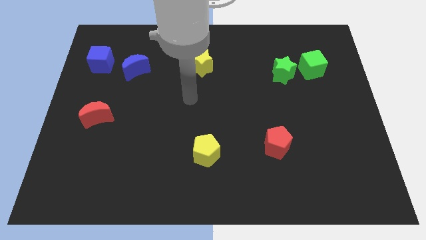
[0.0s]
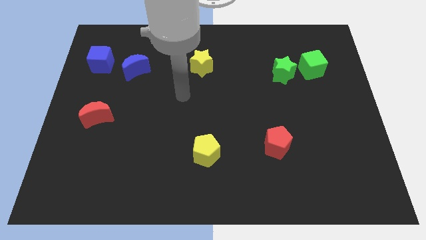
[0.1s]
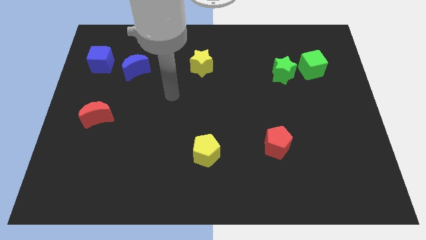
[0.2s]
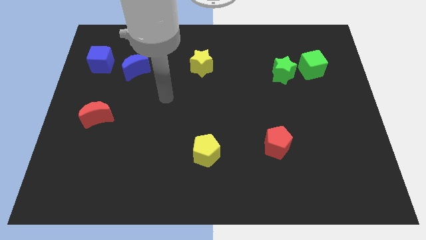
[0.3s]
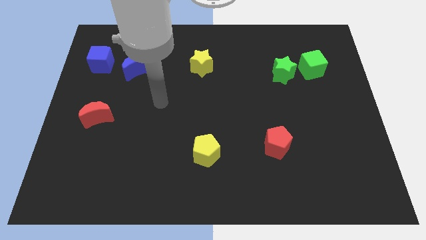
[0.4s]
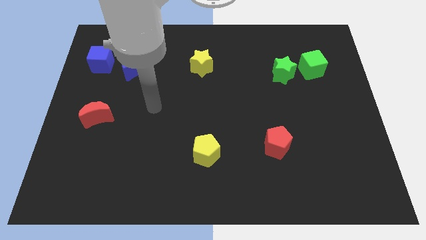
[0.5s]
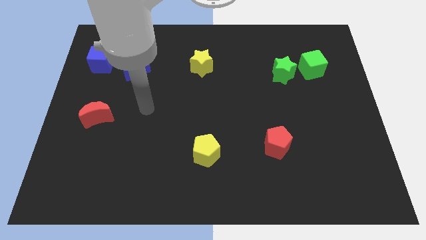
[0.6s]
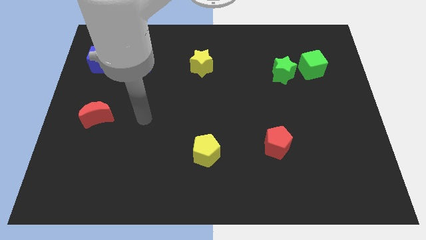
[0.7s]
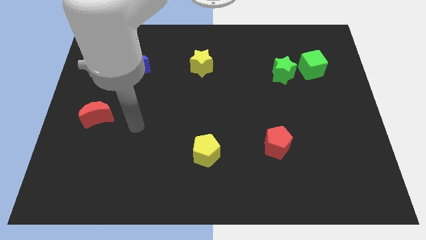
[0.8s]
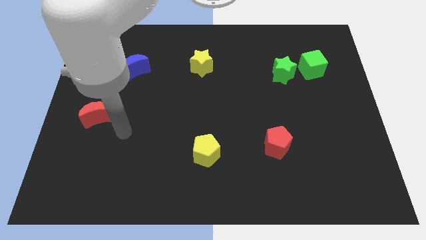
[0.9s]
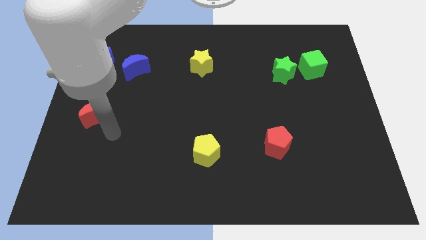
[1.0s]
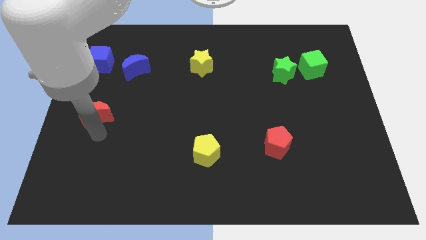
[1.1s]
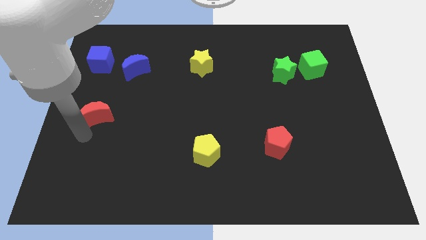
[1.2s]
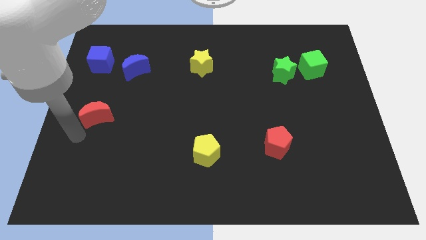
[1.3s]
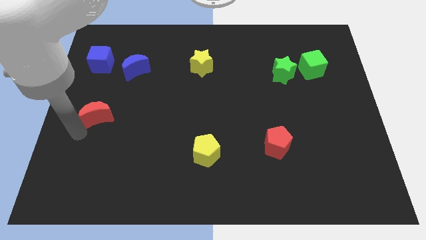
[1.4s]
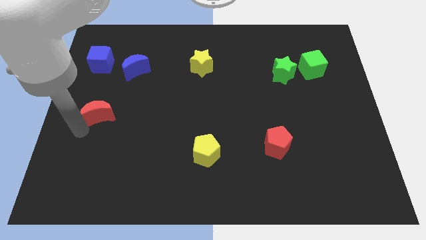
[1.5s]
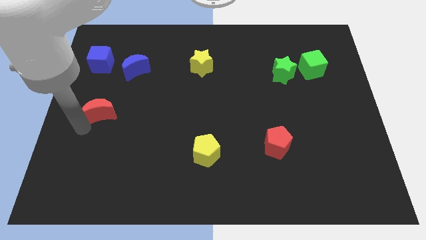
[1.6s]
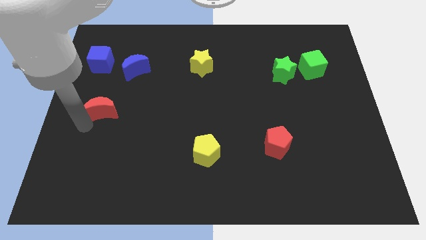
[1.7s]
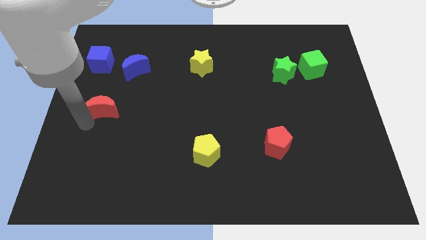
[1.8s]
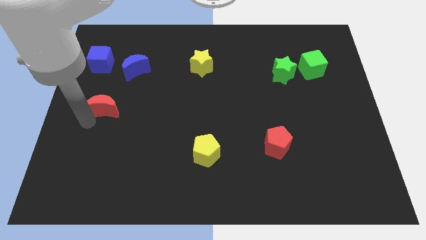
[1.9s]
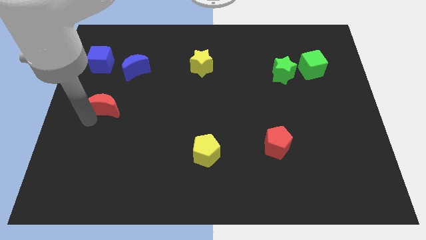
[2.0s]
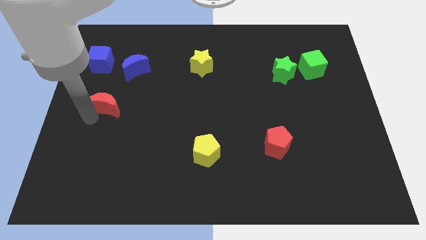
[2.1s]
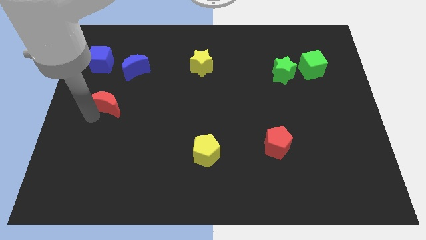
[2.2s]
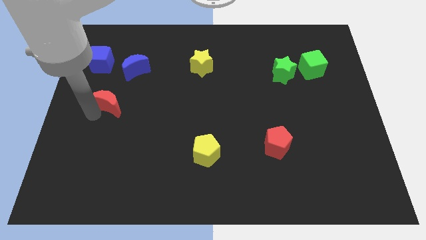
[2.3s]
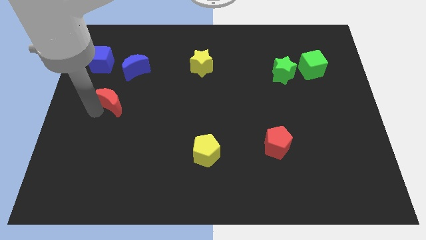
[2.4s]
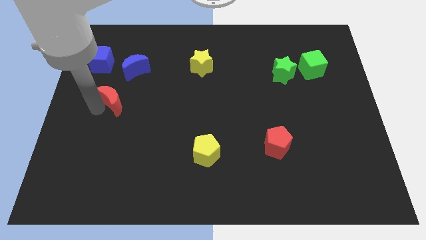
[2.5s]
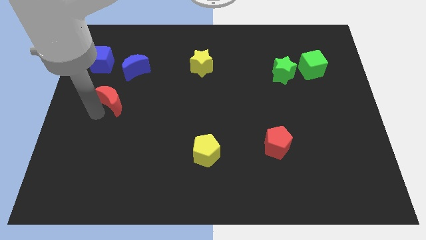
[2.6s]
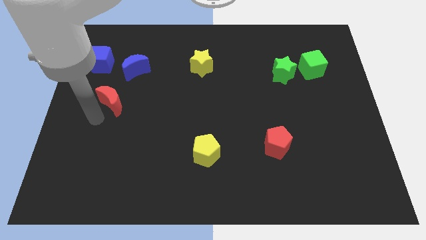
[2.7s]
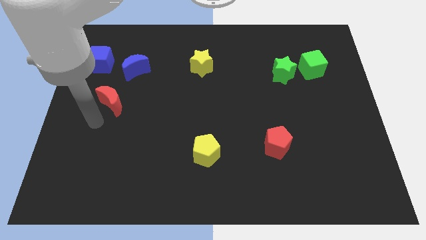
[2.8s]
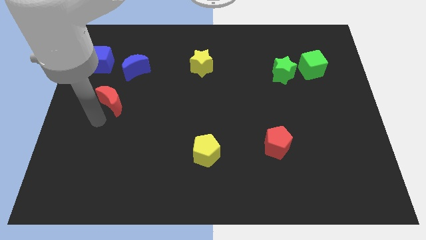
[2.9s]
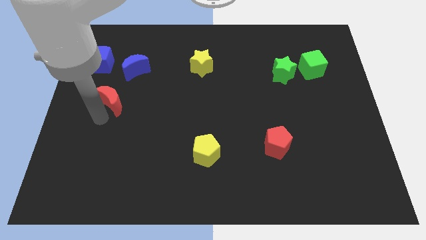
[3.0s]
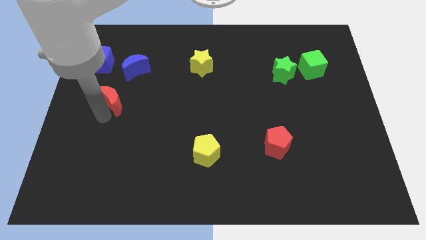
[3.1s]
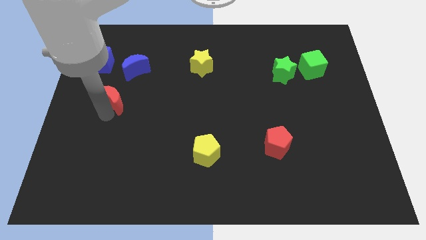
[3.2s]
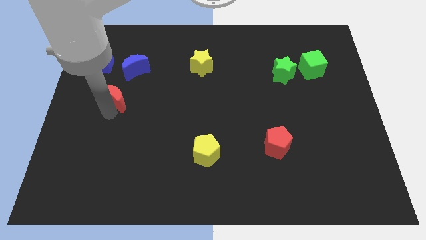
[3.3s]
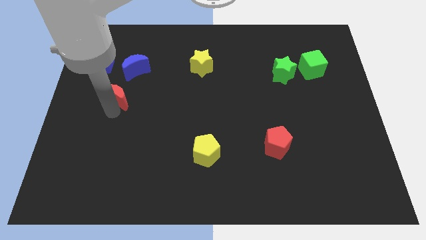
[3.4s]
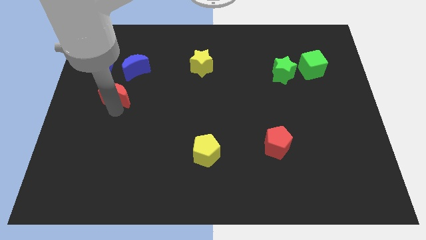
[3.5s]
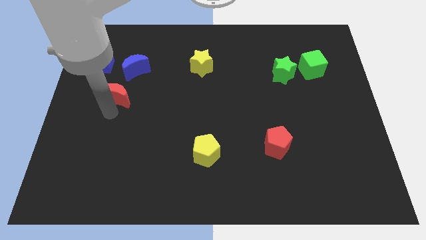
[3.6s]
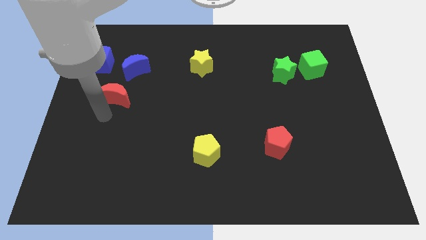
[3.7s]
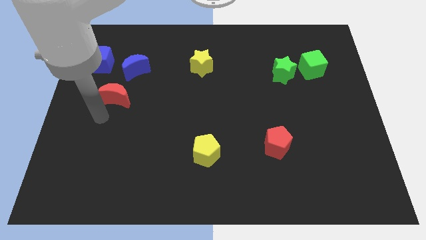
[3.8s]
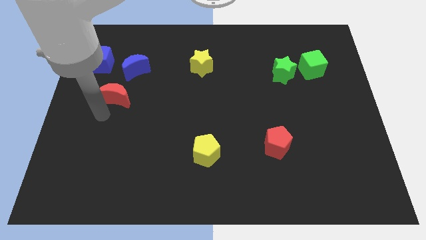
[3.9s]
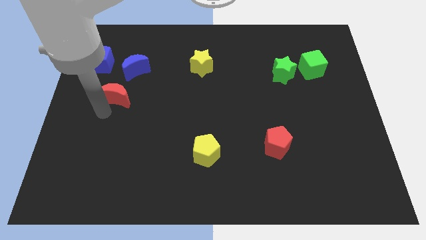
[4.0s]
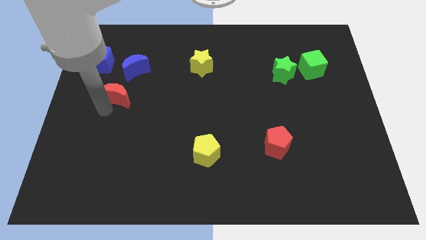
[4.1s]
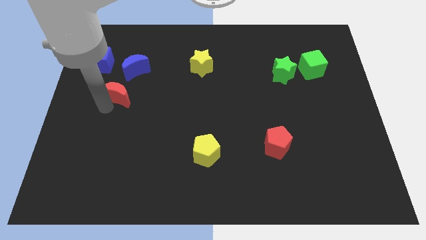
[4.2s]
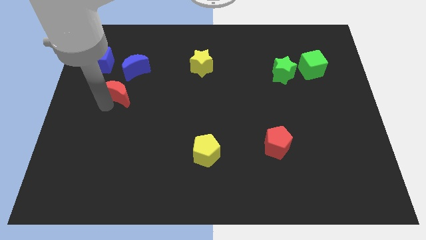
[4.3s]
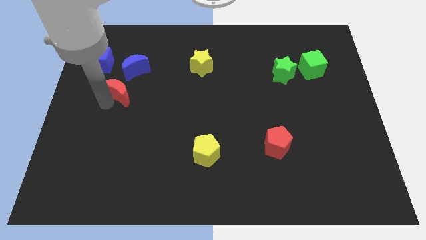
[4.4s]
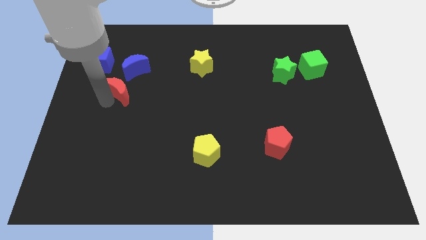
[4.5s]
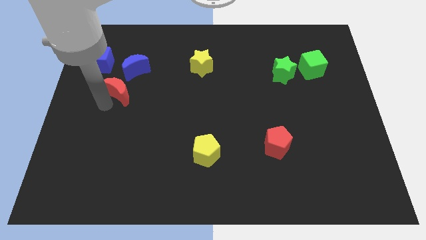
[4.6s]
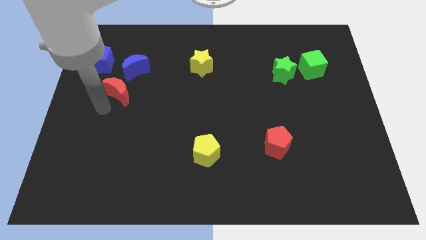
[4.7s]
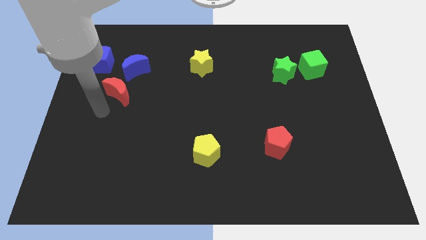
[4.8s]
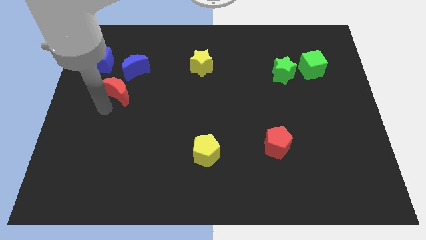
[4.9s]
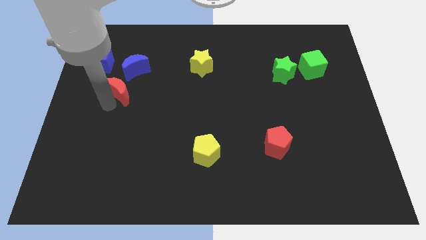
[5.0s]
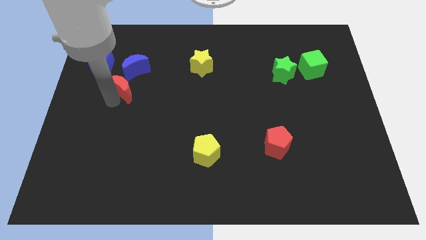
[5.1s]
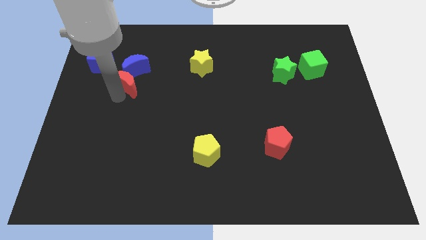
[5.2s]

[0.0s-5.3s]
slide the red moon towards the blue moon

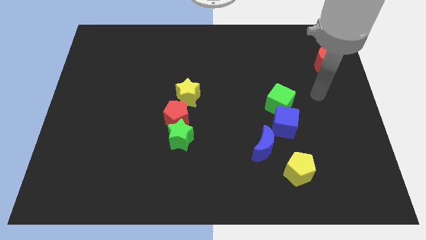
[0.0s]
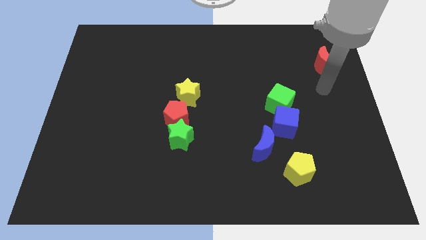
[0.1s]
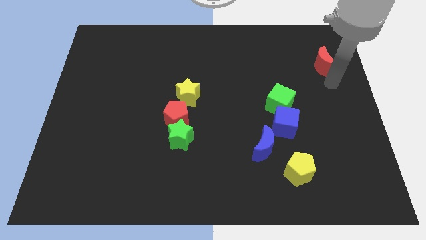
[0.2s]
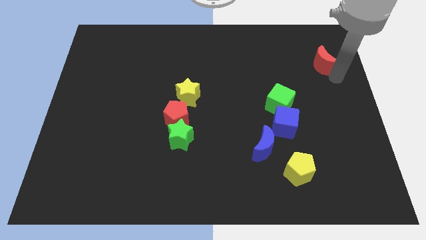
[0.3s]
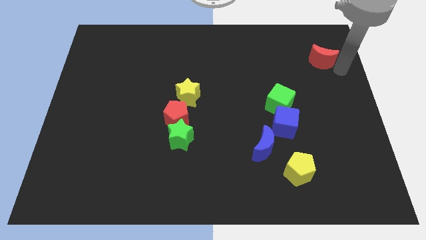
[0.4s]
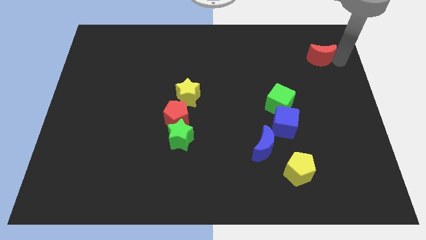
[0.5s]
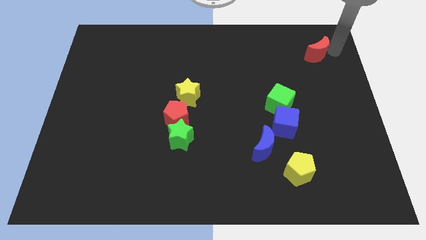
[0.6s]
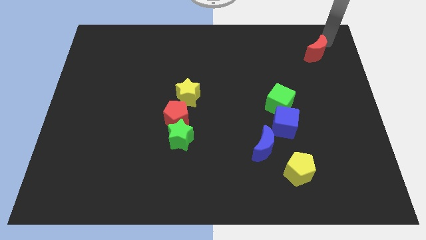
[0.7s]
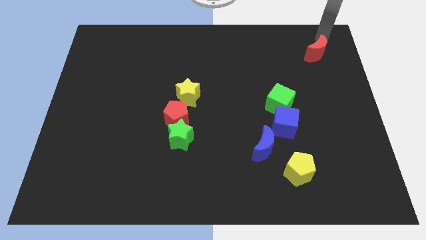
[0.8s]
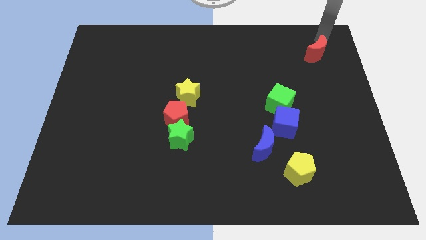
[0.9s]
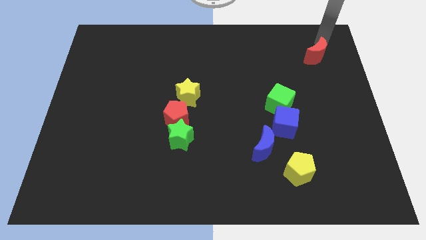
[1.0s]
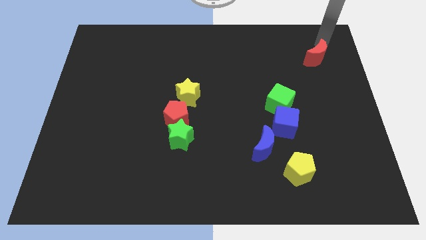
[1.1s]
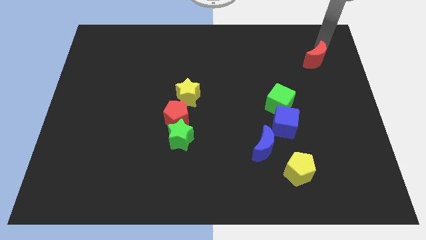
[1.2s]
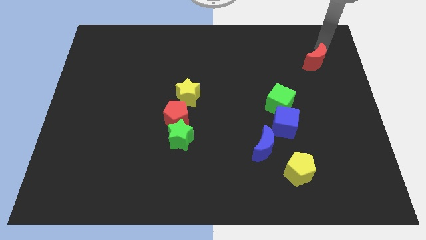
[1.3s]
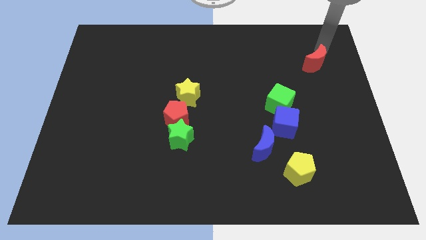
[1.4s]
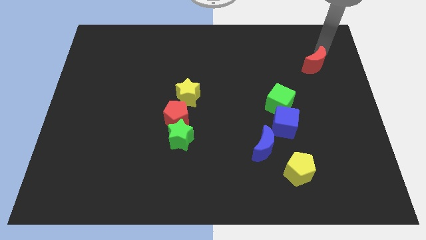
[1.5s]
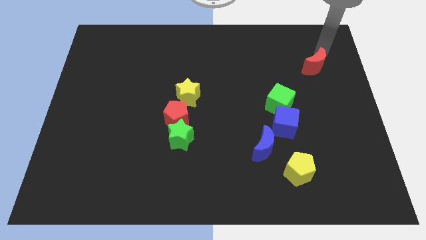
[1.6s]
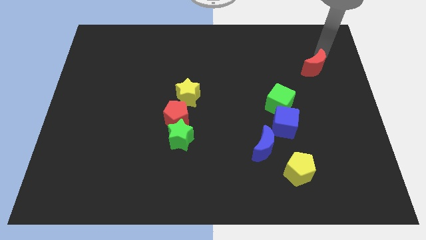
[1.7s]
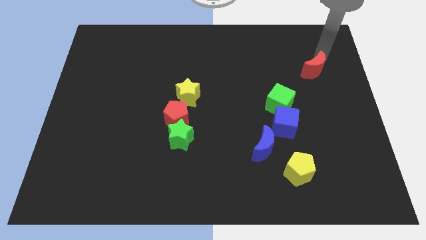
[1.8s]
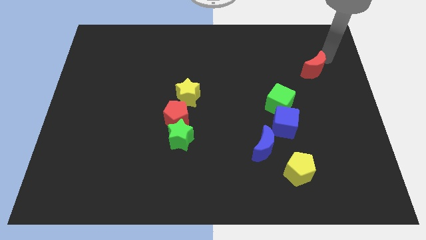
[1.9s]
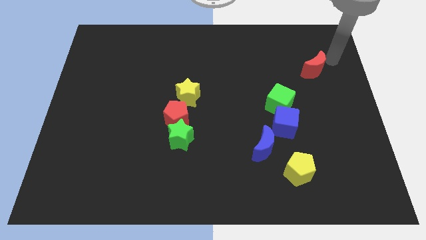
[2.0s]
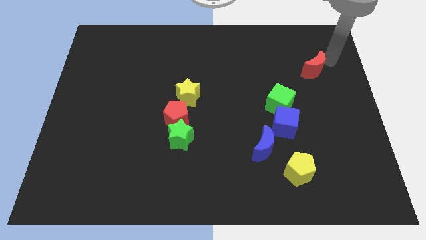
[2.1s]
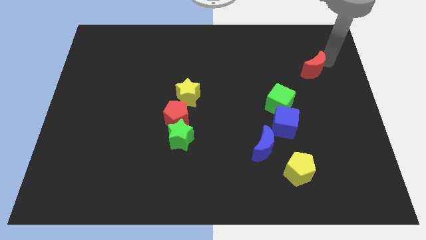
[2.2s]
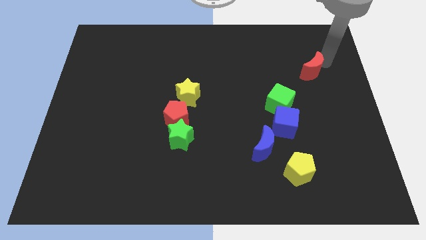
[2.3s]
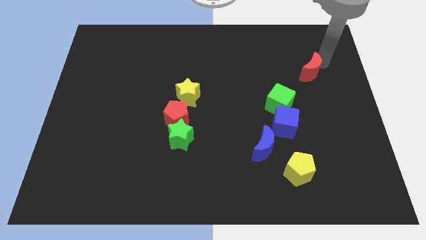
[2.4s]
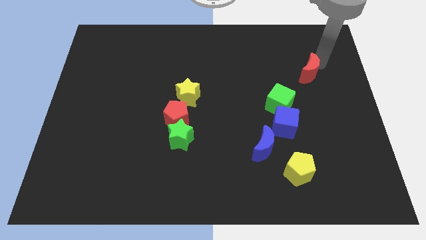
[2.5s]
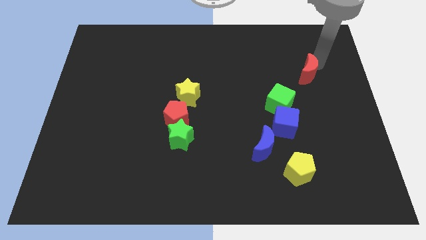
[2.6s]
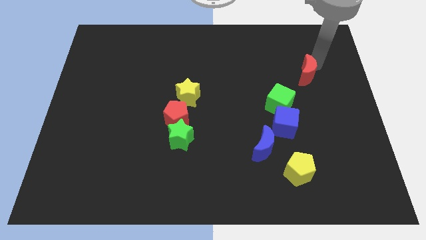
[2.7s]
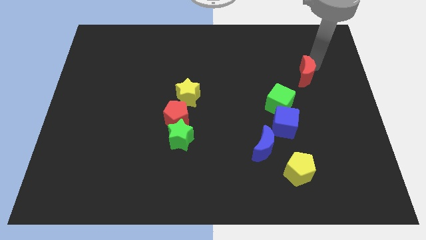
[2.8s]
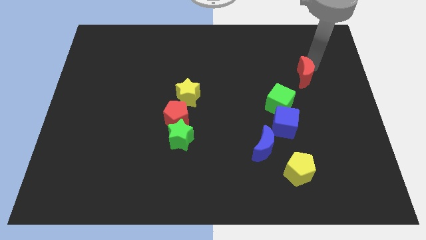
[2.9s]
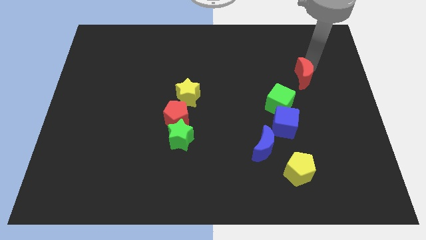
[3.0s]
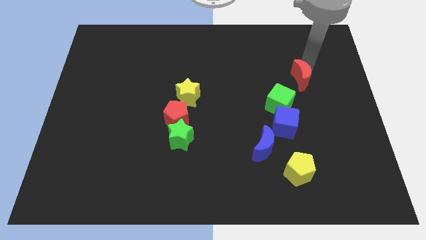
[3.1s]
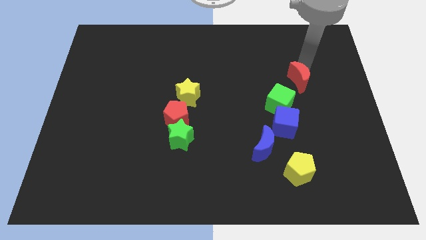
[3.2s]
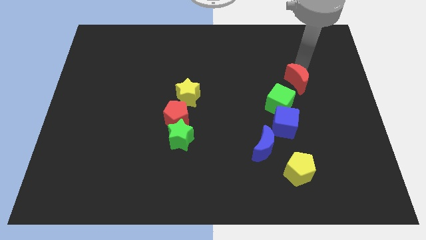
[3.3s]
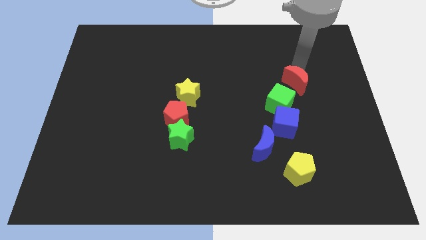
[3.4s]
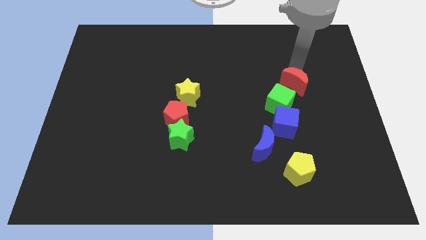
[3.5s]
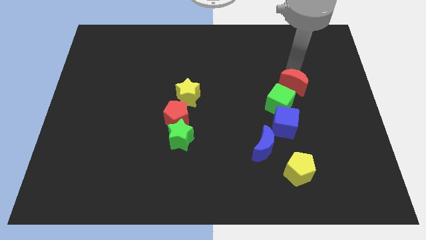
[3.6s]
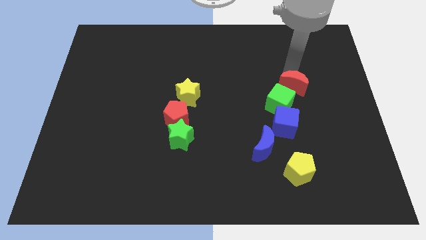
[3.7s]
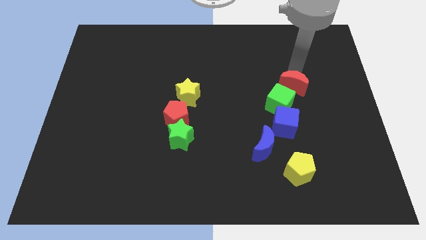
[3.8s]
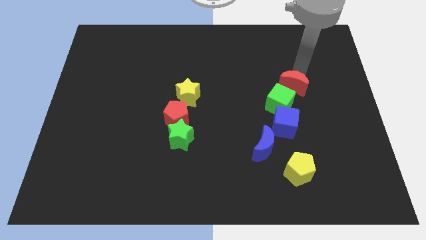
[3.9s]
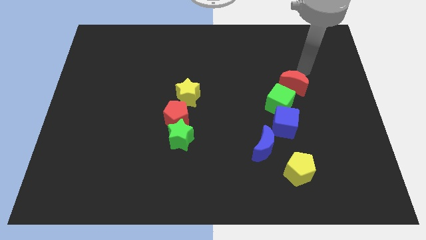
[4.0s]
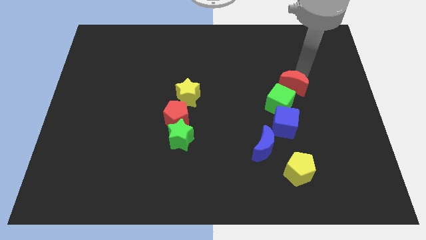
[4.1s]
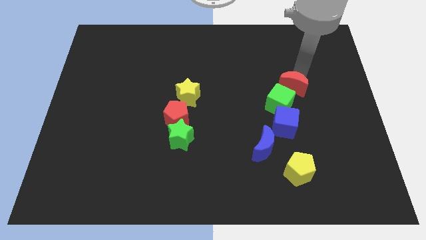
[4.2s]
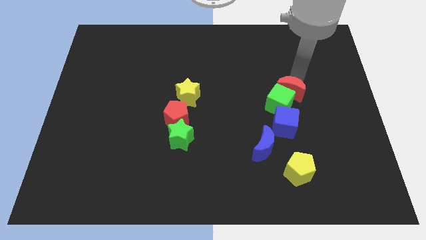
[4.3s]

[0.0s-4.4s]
slide the red moon close to the green cube
